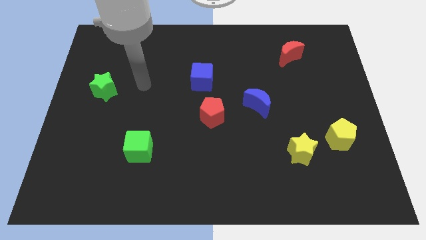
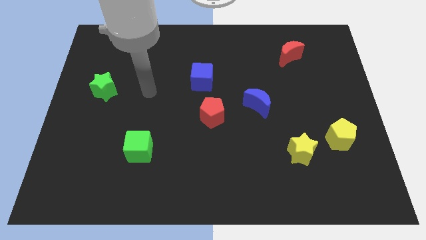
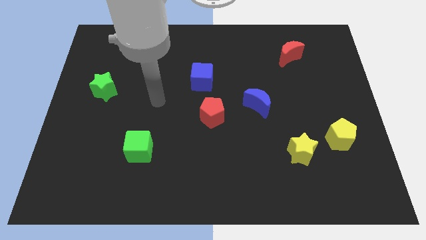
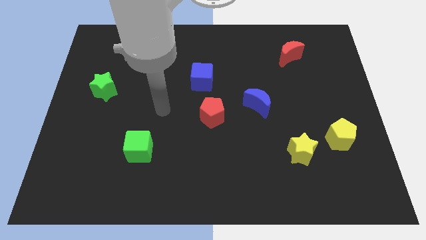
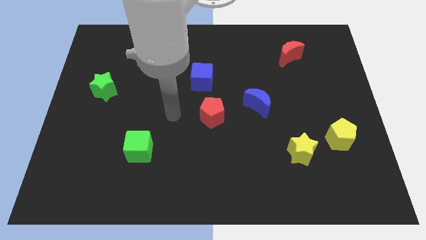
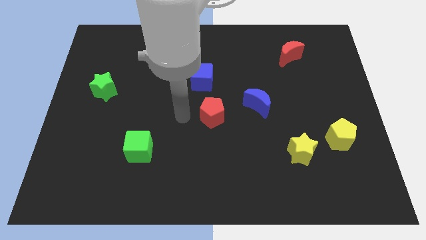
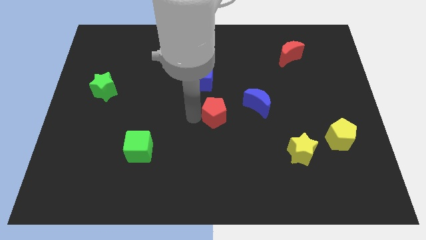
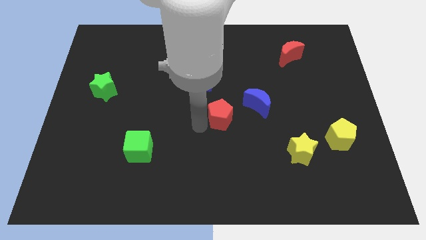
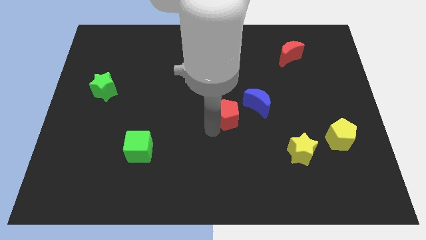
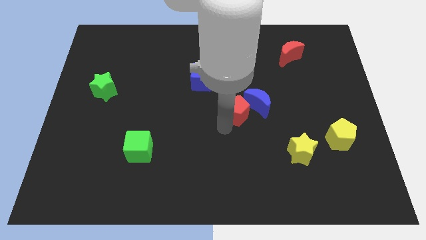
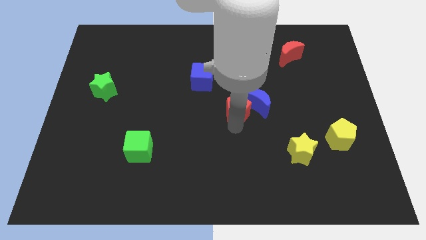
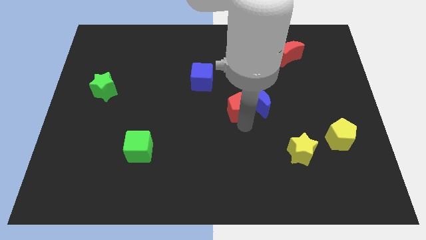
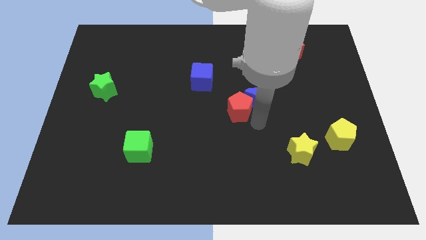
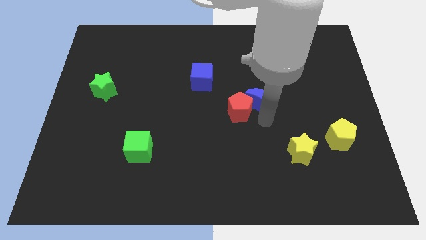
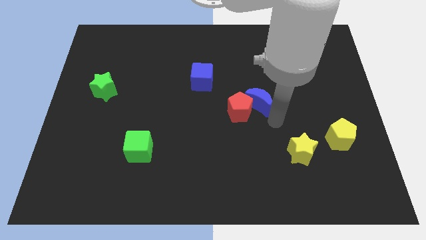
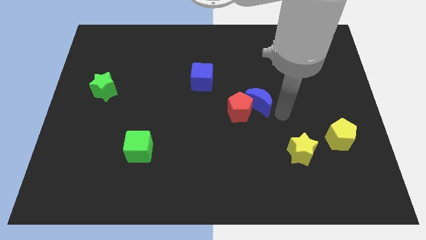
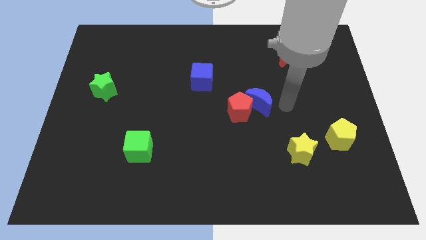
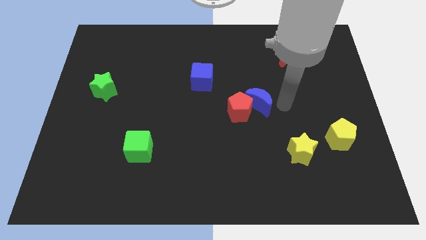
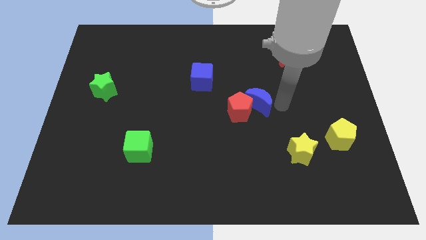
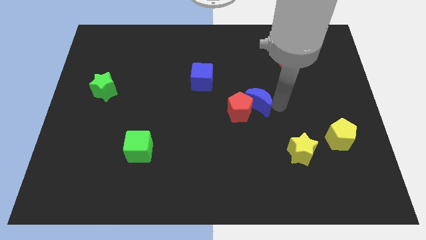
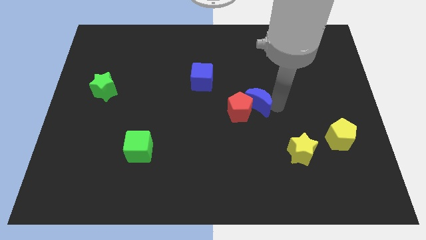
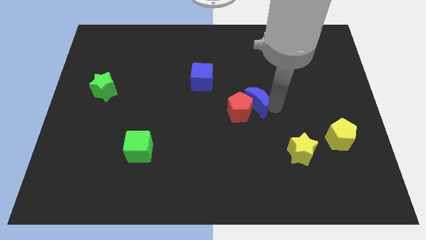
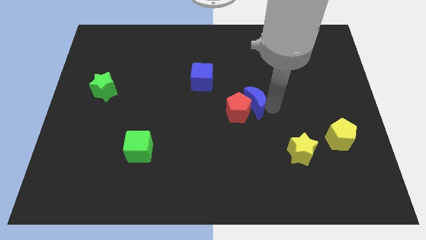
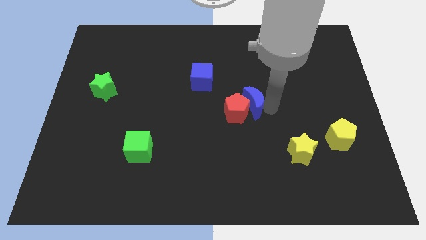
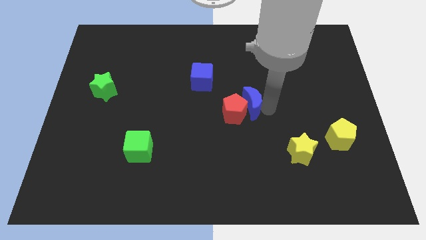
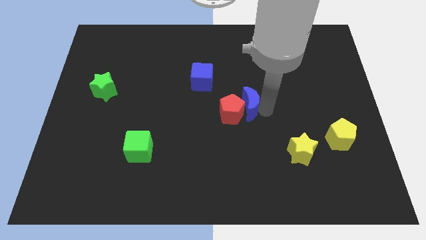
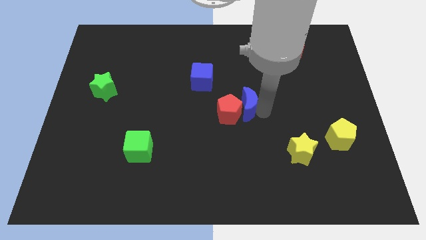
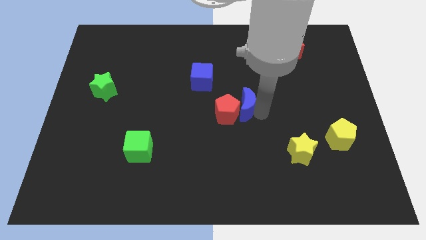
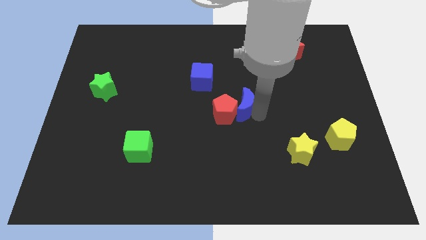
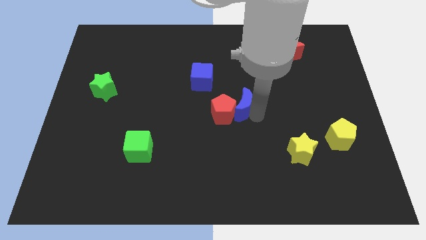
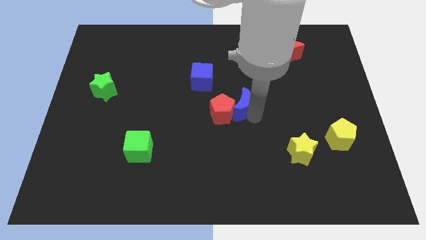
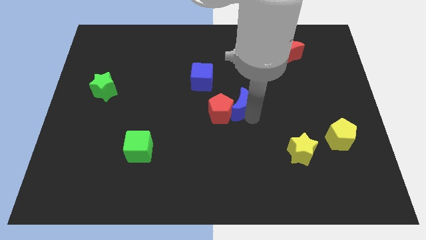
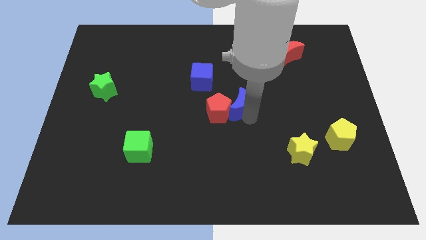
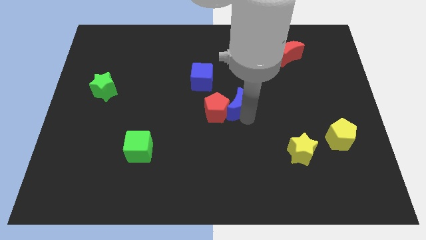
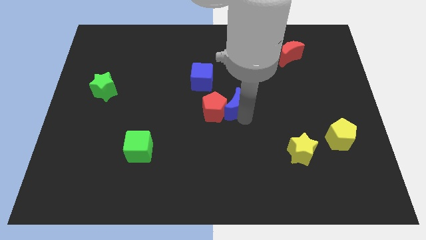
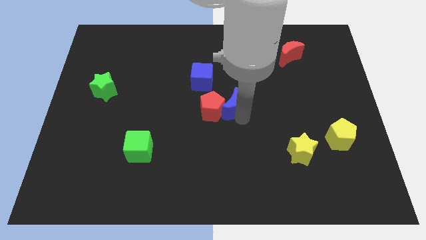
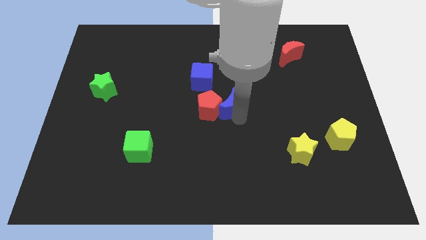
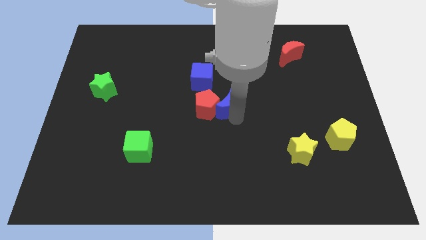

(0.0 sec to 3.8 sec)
move the blue moon a bit to the left

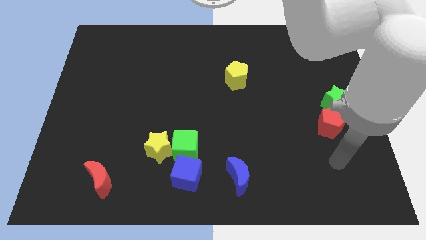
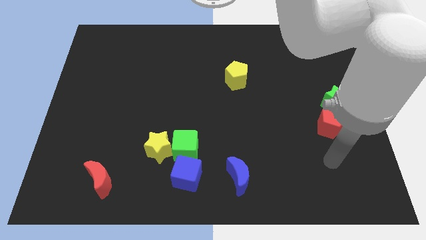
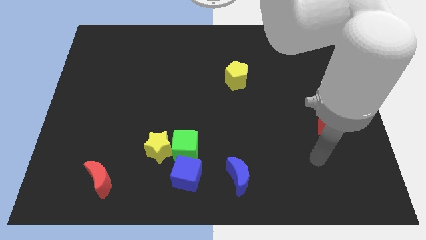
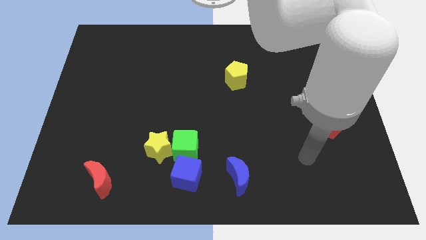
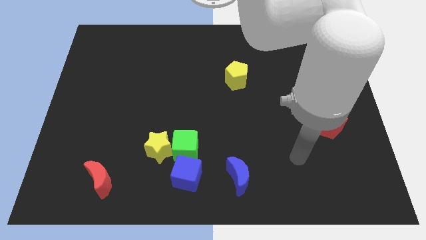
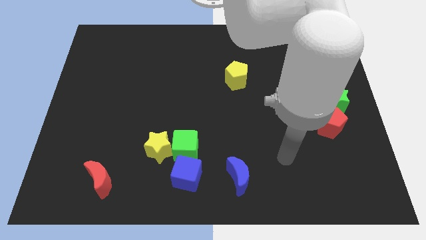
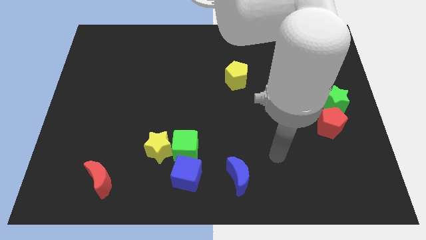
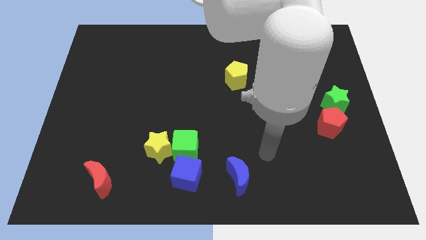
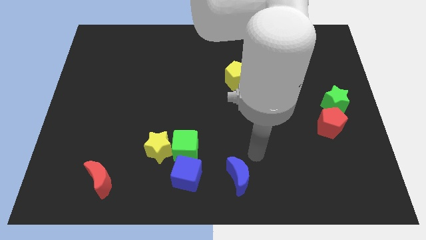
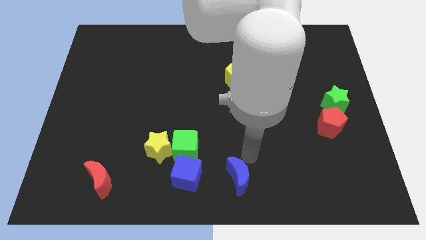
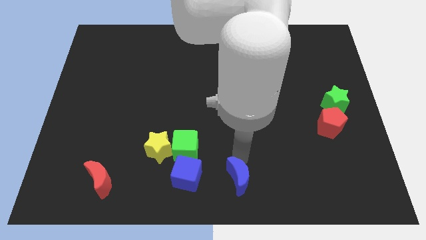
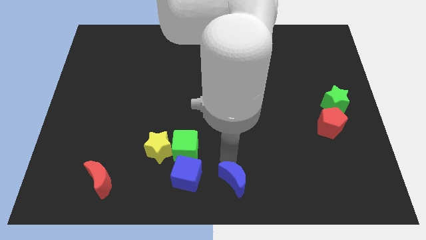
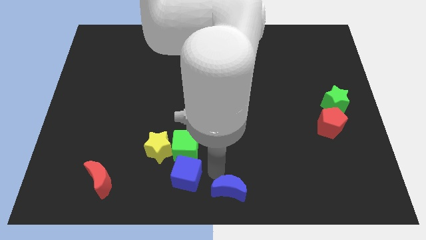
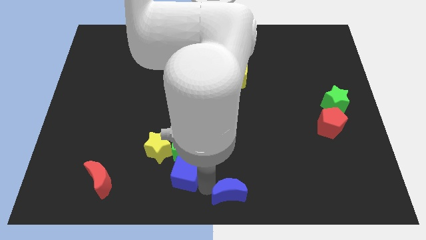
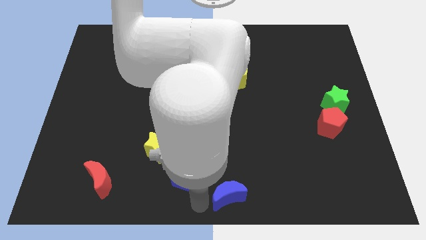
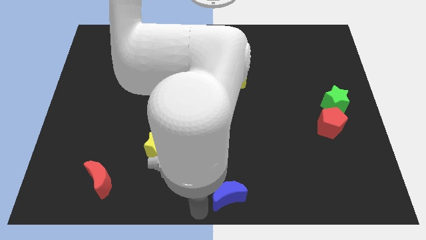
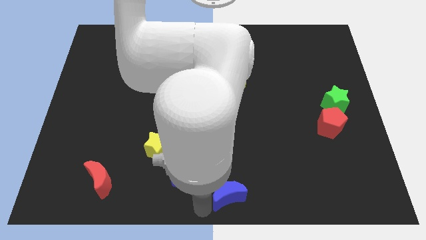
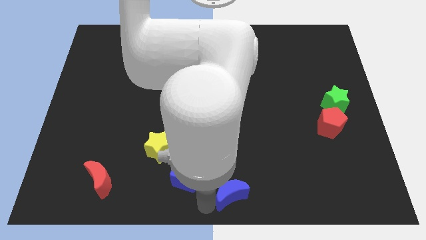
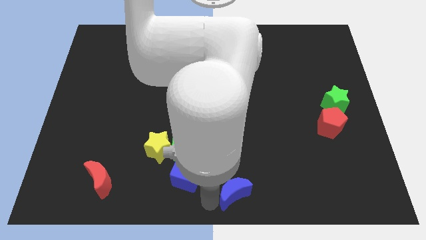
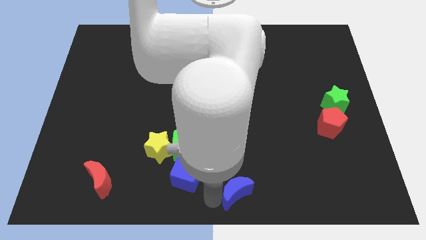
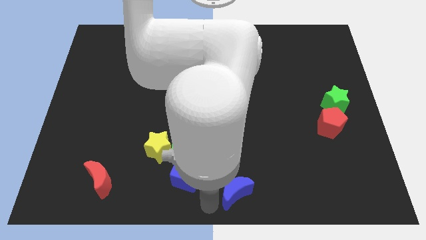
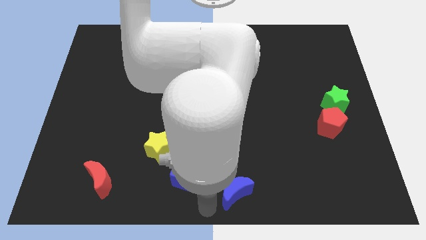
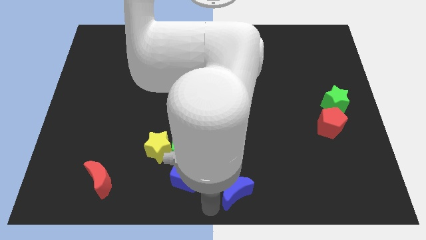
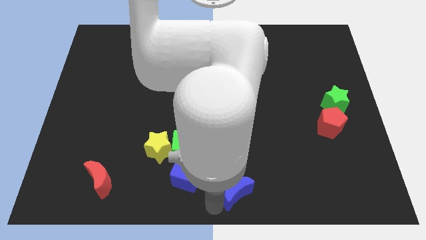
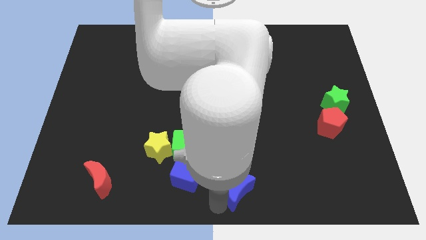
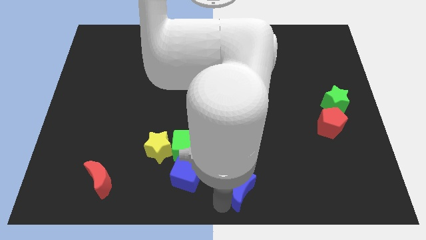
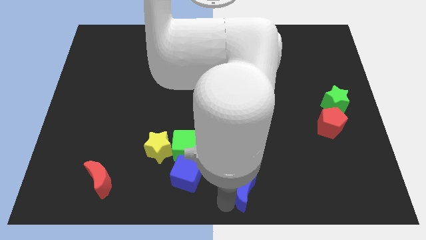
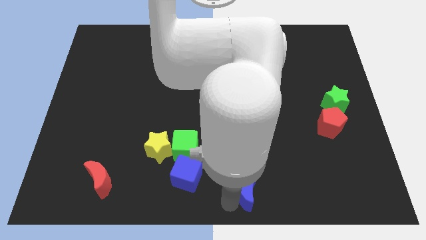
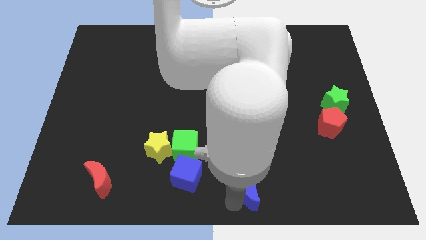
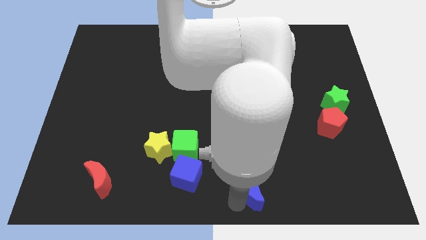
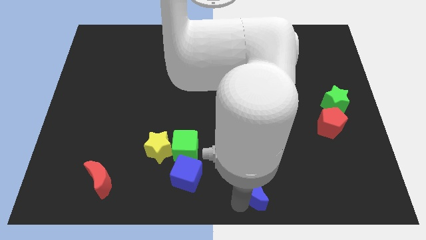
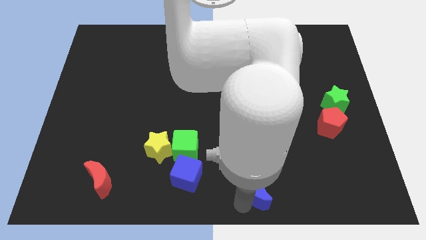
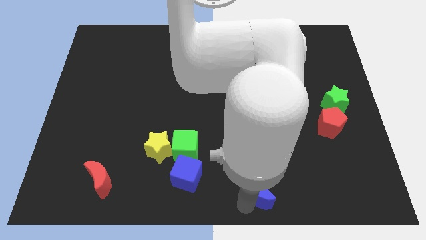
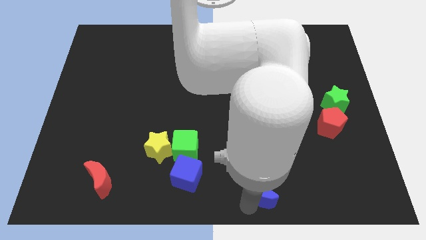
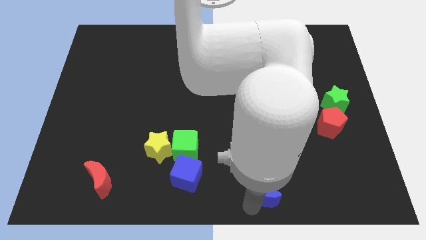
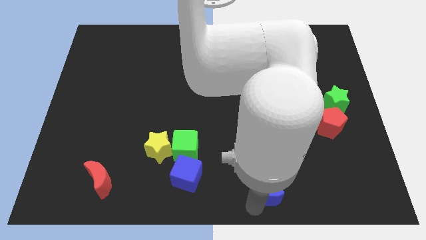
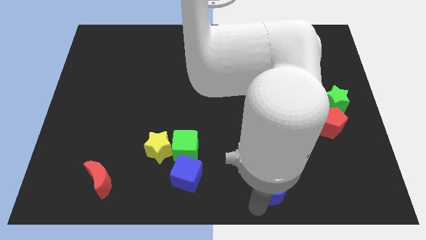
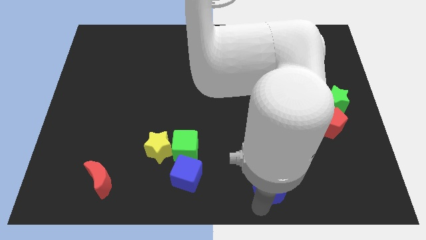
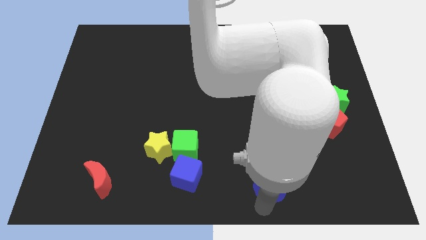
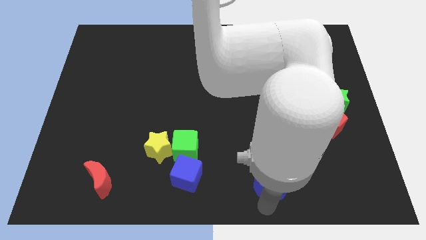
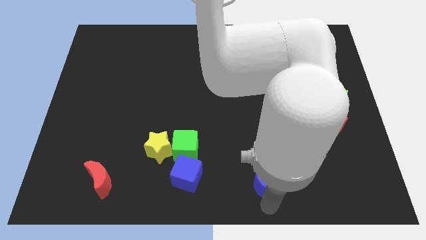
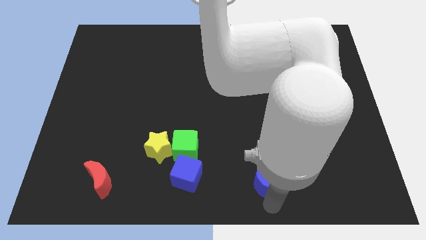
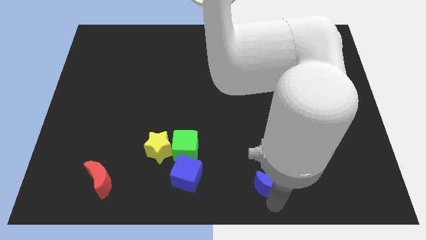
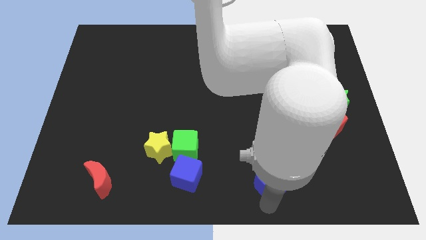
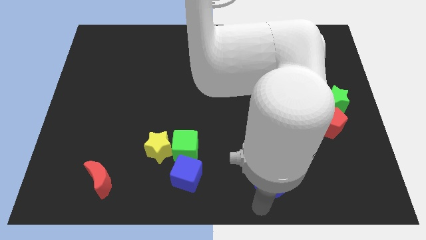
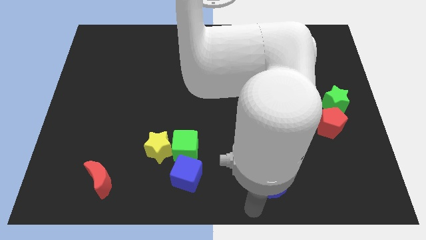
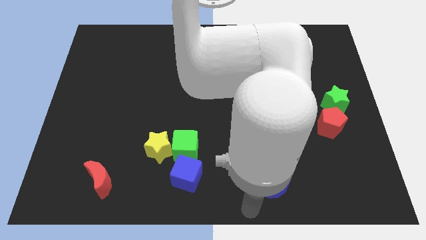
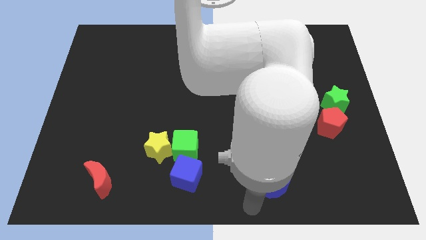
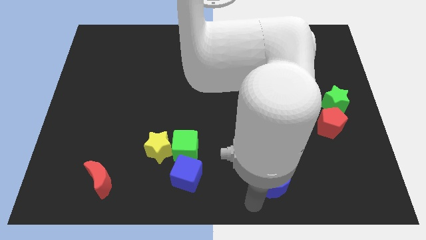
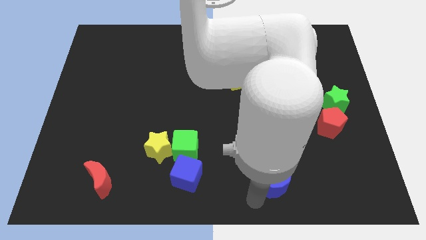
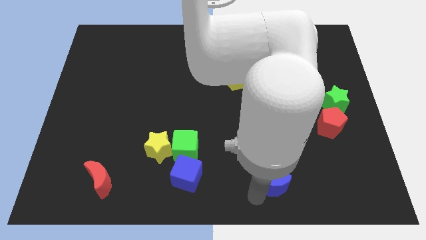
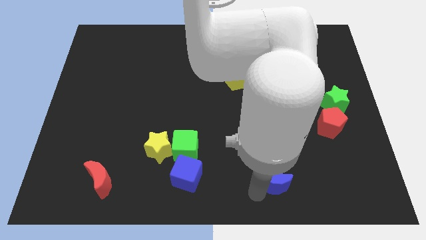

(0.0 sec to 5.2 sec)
push the blue moon somewhat right
